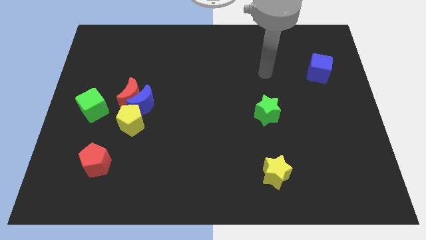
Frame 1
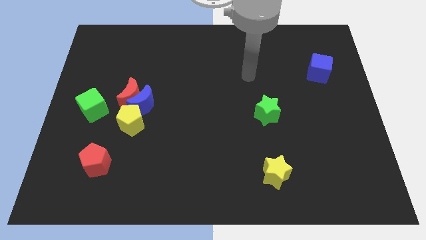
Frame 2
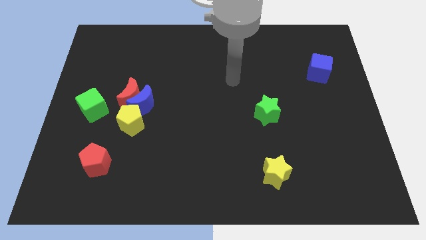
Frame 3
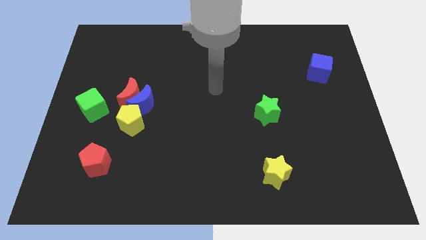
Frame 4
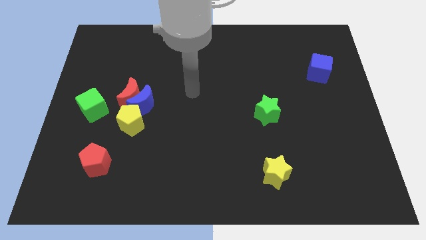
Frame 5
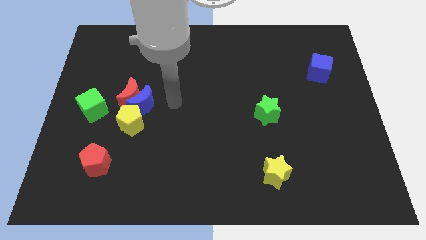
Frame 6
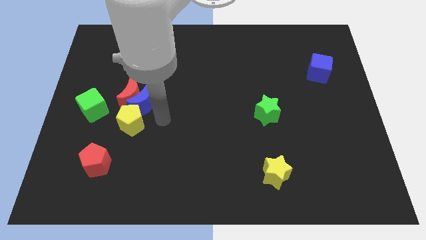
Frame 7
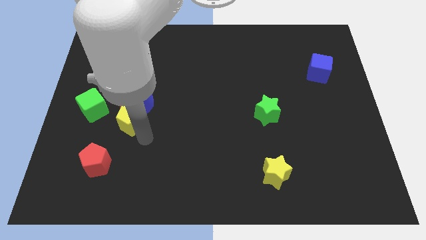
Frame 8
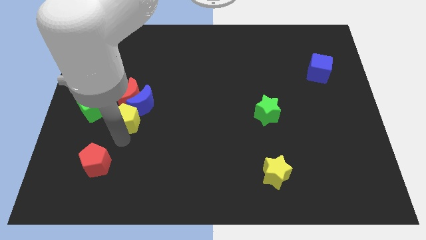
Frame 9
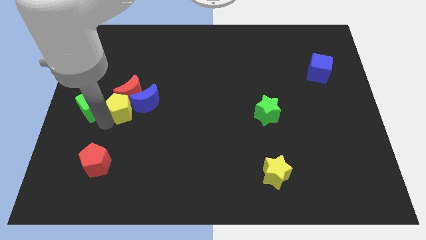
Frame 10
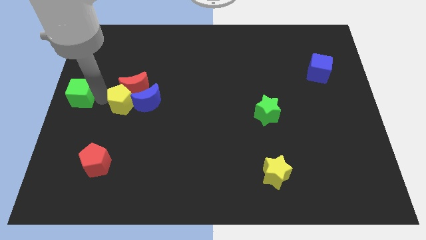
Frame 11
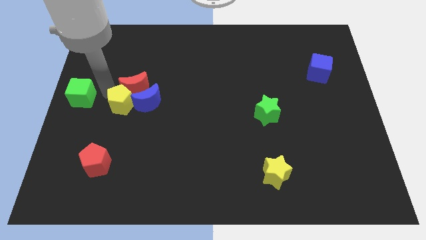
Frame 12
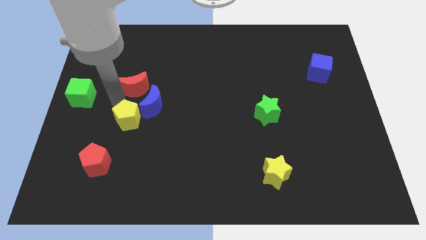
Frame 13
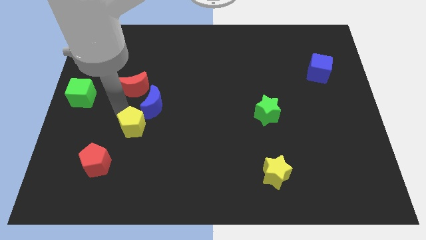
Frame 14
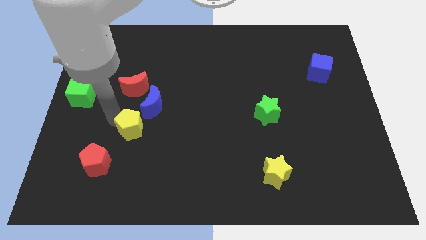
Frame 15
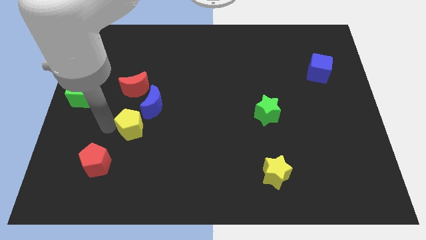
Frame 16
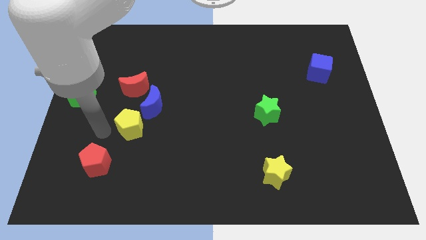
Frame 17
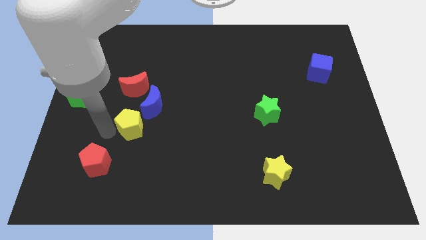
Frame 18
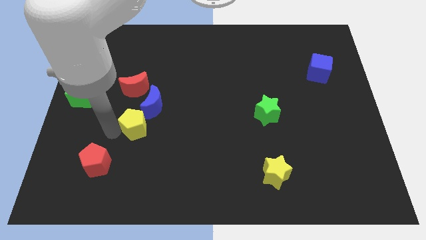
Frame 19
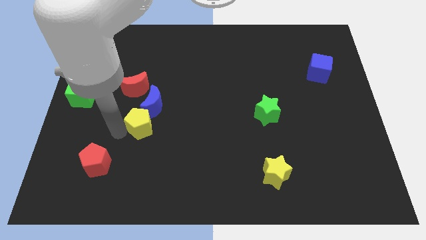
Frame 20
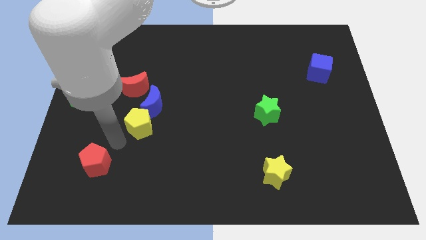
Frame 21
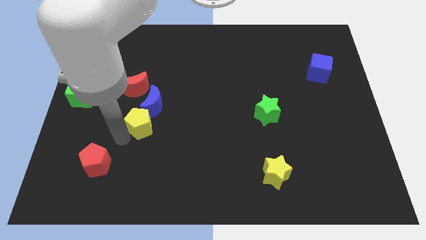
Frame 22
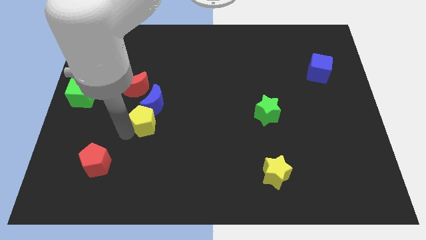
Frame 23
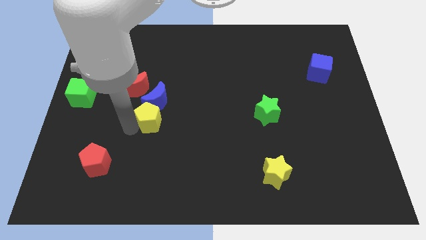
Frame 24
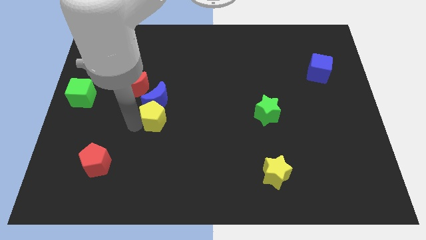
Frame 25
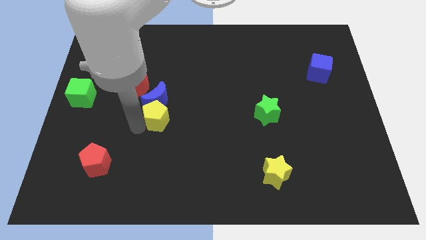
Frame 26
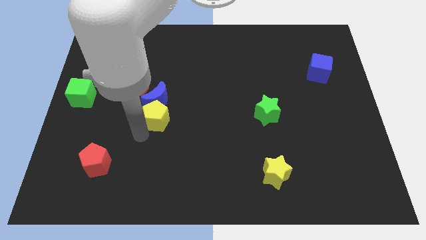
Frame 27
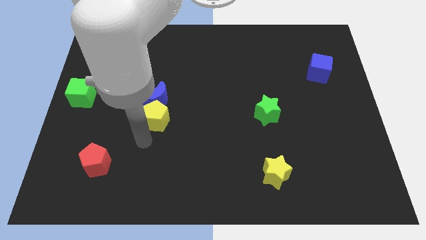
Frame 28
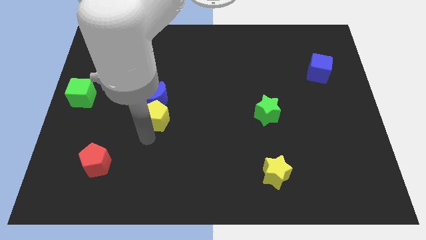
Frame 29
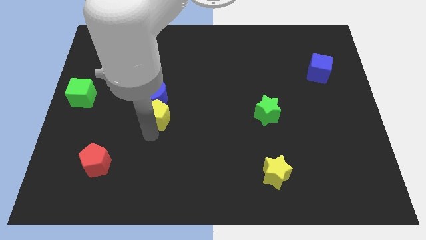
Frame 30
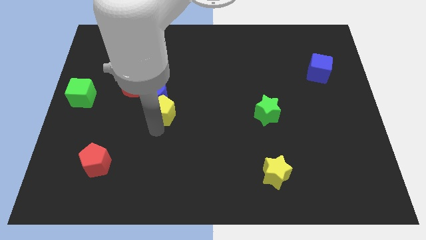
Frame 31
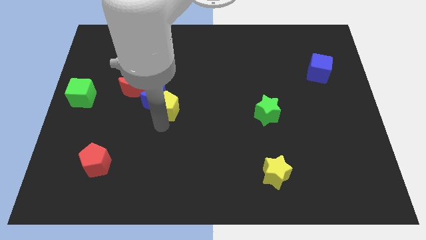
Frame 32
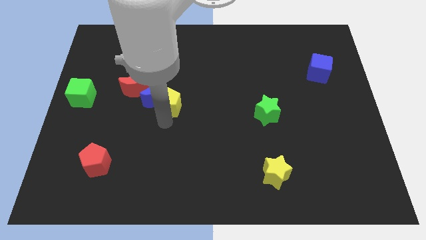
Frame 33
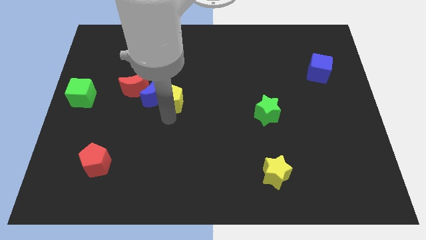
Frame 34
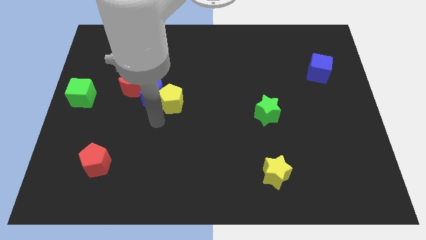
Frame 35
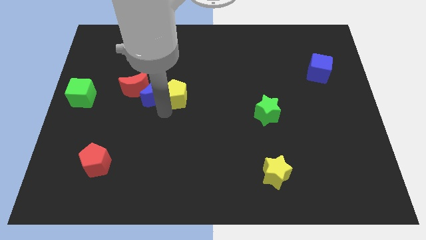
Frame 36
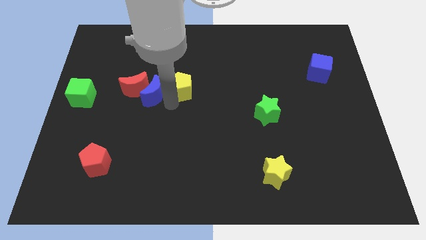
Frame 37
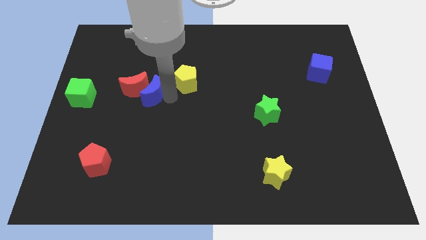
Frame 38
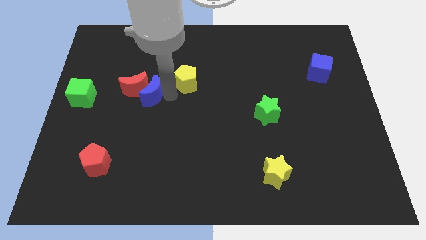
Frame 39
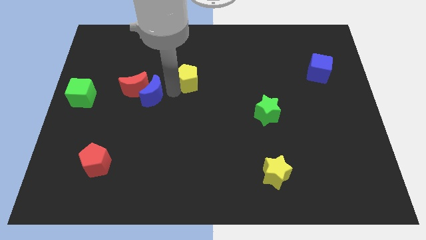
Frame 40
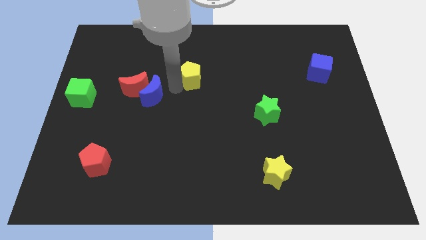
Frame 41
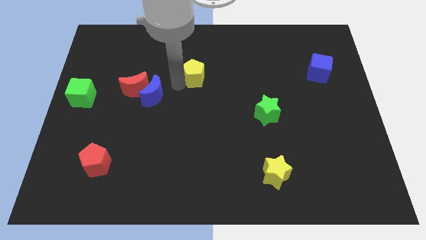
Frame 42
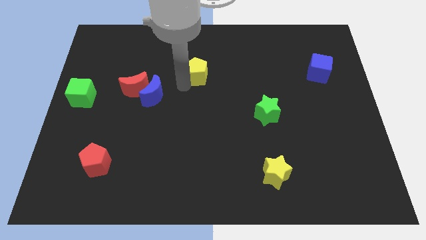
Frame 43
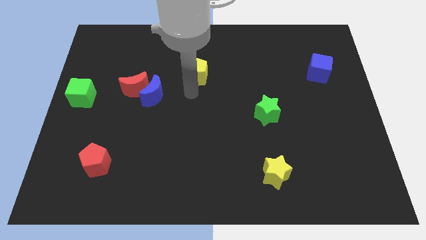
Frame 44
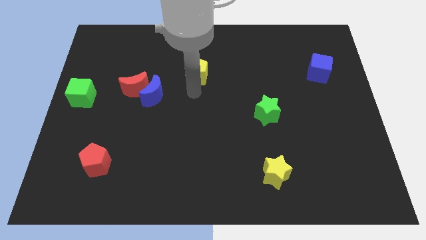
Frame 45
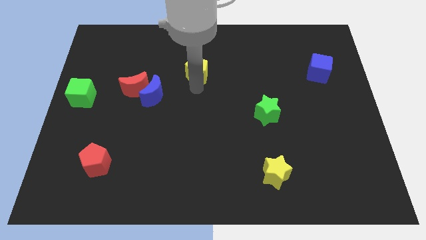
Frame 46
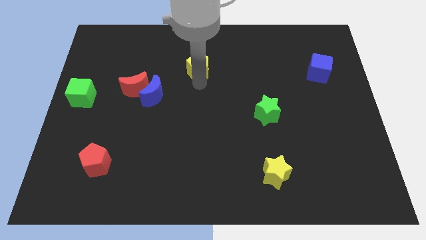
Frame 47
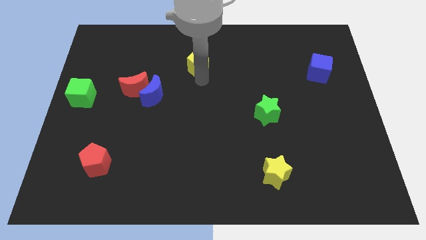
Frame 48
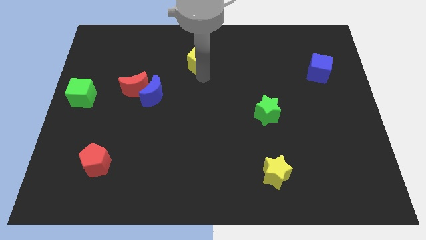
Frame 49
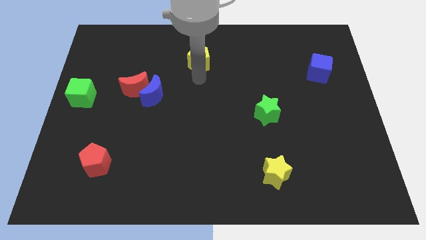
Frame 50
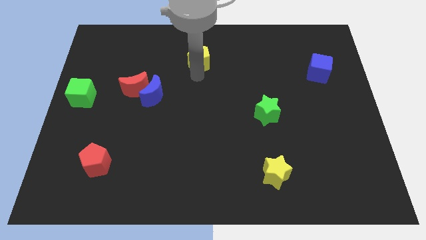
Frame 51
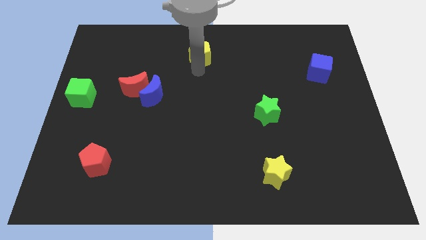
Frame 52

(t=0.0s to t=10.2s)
put the yellow pentagon to the top side

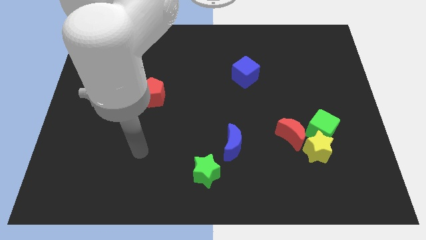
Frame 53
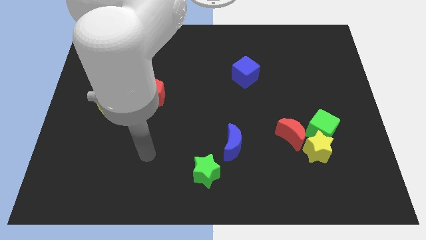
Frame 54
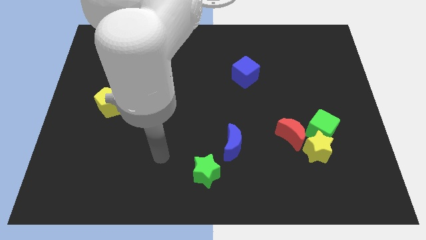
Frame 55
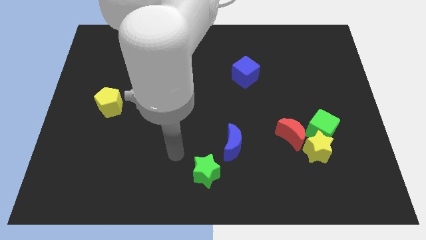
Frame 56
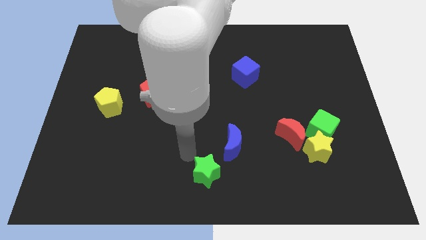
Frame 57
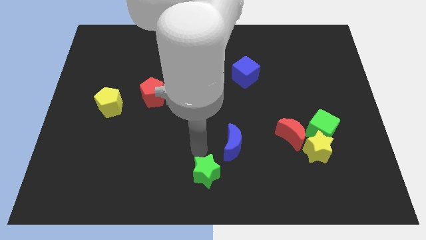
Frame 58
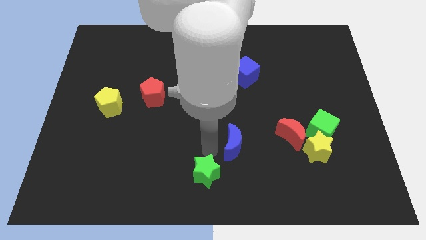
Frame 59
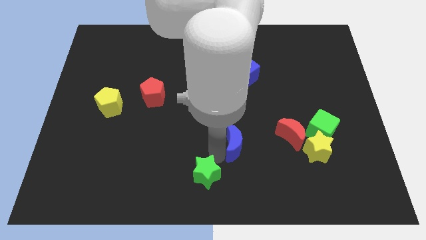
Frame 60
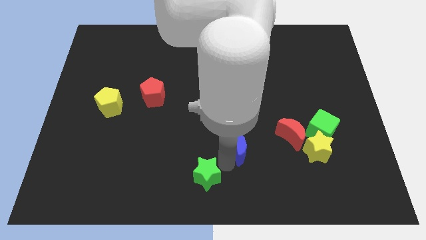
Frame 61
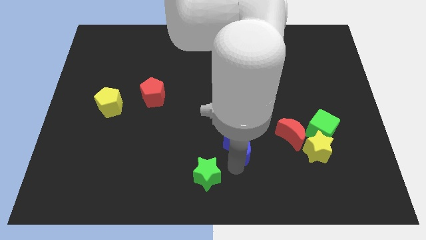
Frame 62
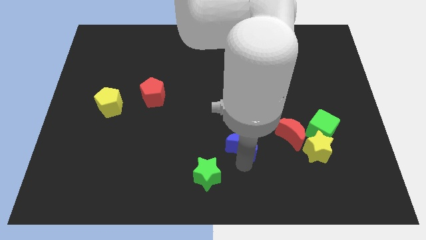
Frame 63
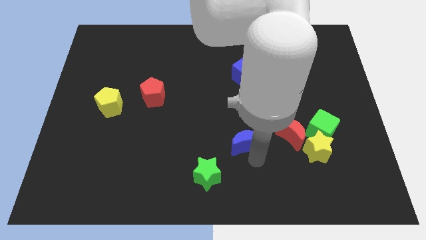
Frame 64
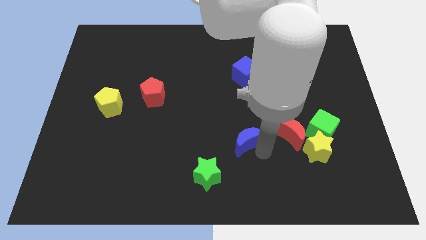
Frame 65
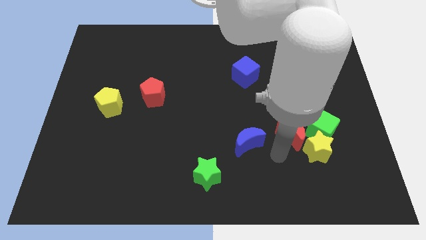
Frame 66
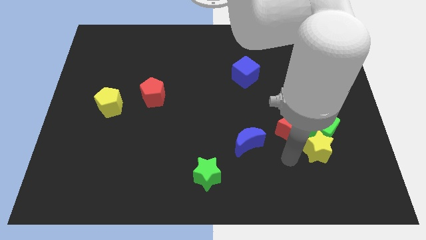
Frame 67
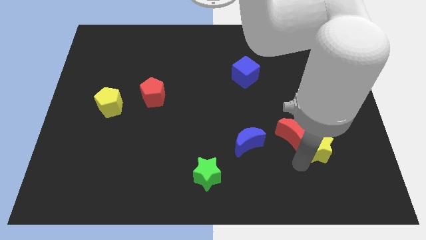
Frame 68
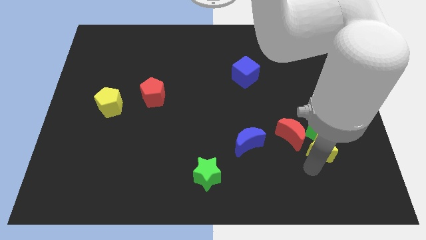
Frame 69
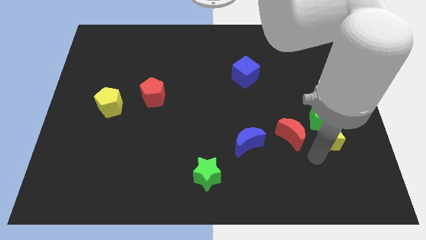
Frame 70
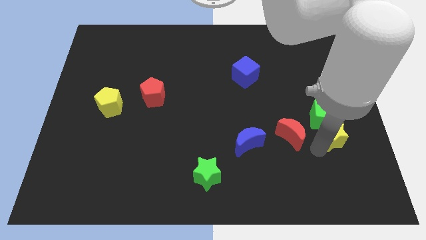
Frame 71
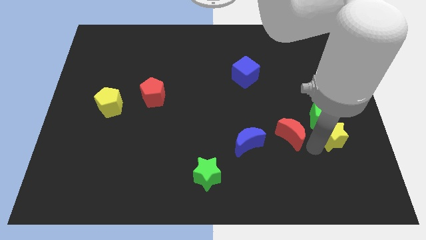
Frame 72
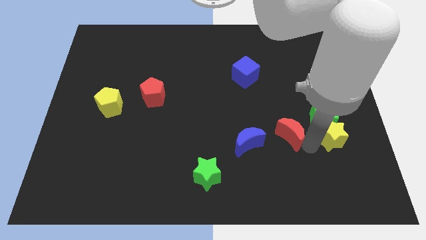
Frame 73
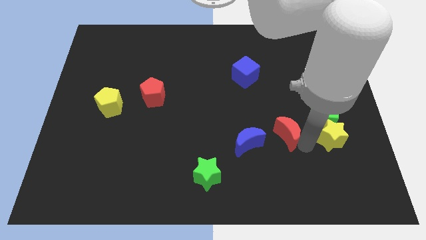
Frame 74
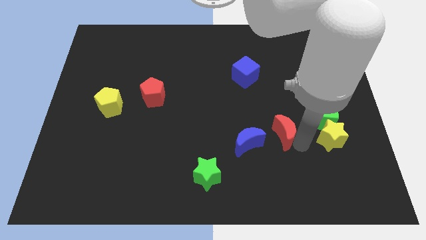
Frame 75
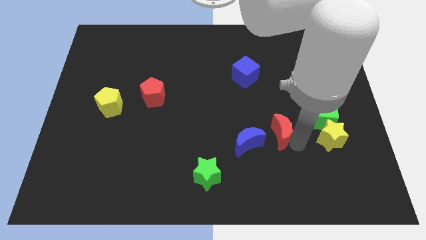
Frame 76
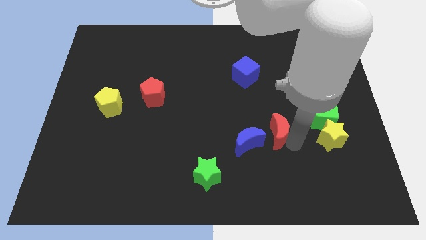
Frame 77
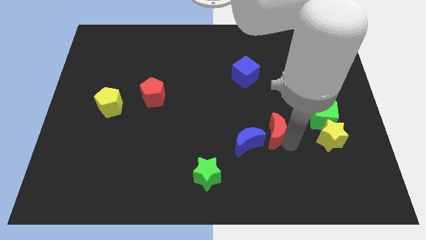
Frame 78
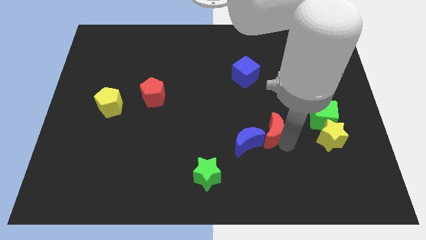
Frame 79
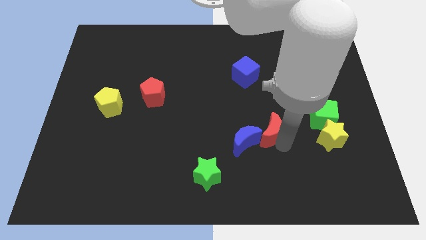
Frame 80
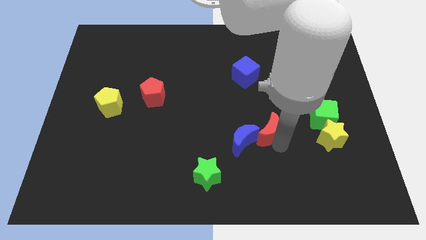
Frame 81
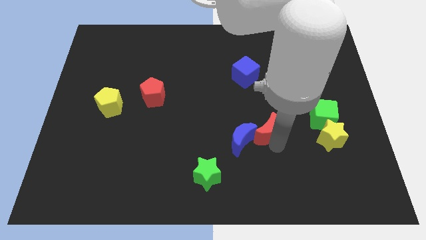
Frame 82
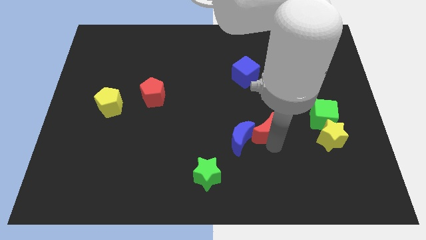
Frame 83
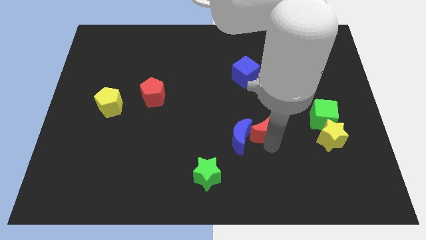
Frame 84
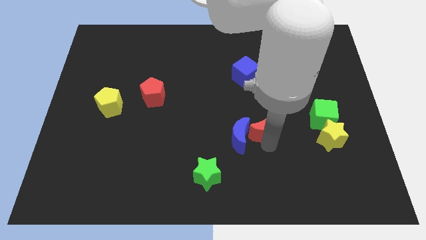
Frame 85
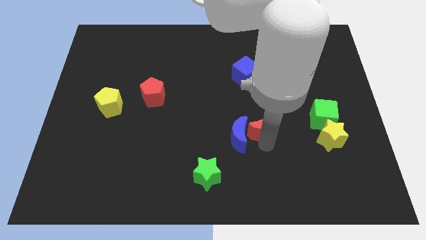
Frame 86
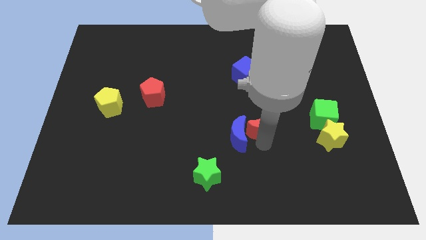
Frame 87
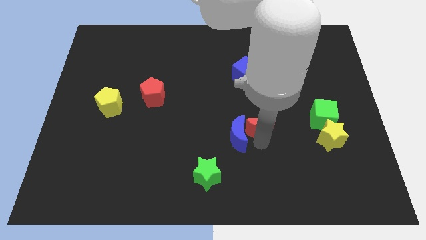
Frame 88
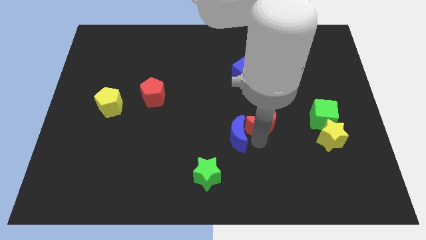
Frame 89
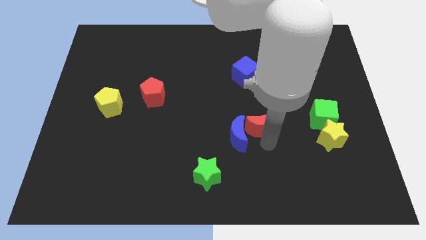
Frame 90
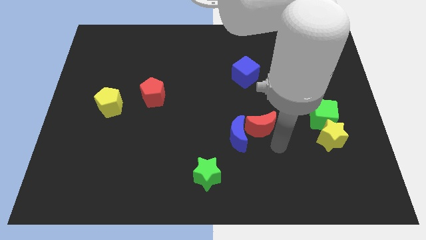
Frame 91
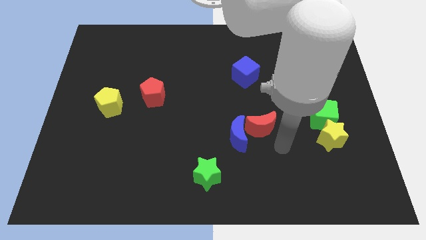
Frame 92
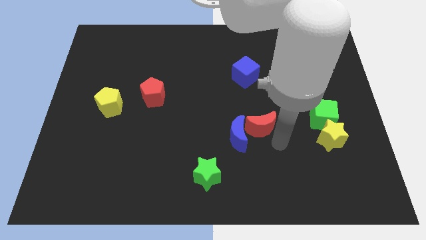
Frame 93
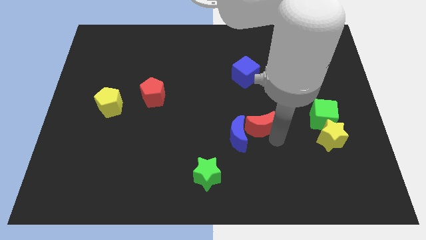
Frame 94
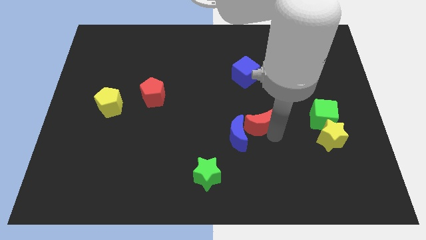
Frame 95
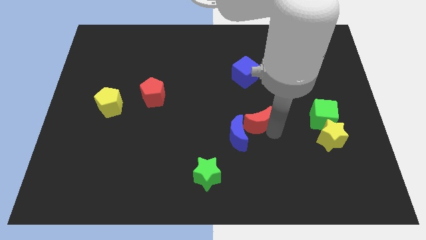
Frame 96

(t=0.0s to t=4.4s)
put the red moon to the middle
